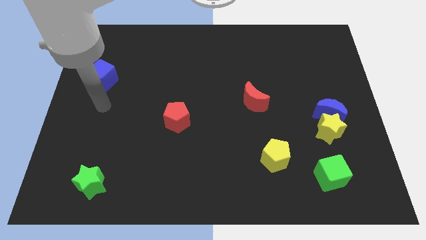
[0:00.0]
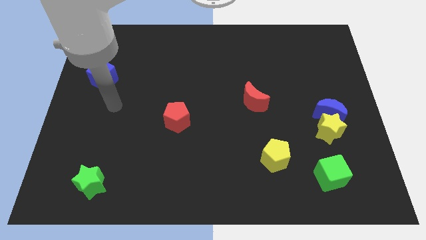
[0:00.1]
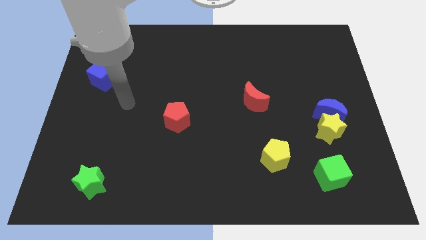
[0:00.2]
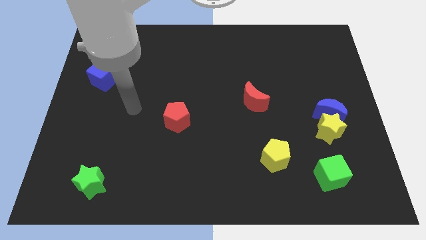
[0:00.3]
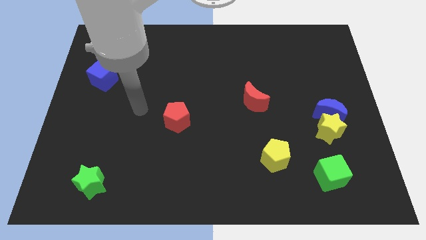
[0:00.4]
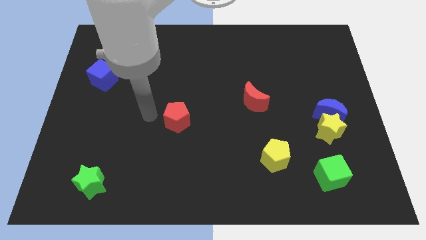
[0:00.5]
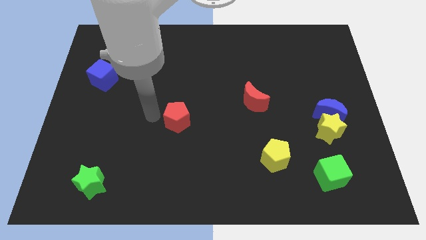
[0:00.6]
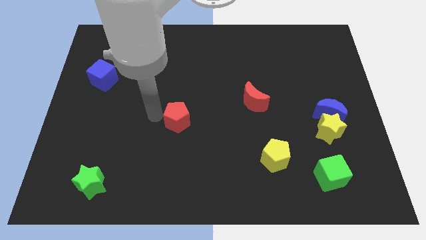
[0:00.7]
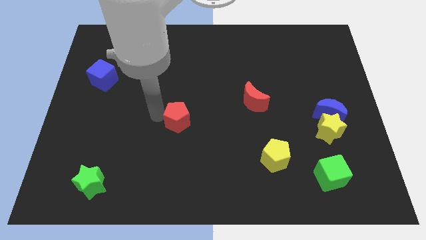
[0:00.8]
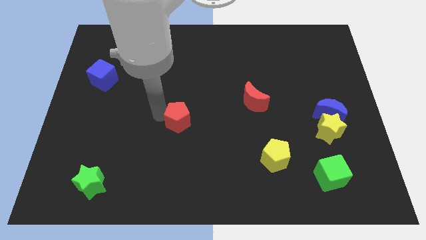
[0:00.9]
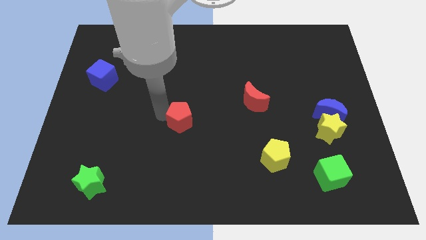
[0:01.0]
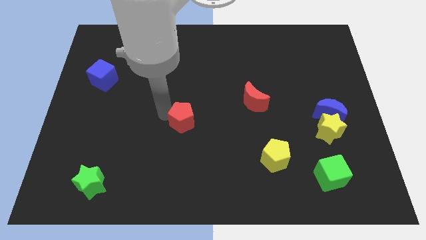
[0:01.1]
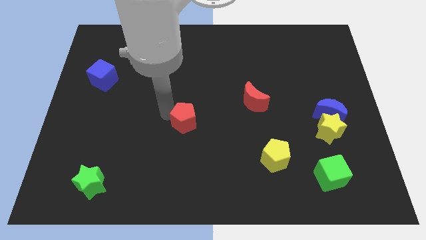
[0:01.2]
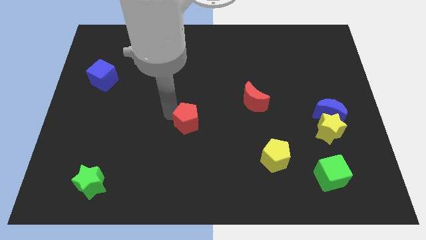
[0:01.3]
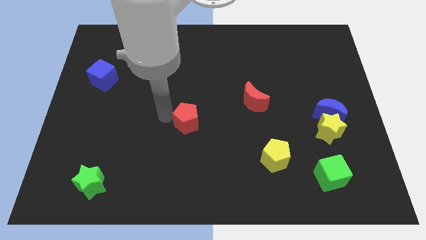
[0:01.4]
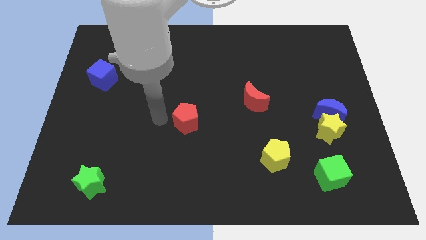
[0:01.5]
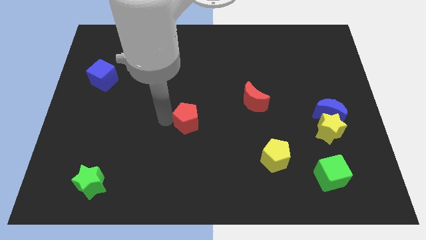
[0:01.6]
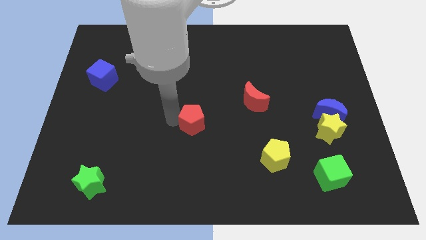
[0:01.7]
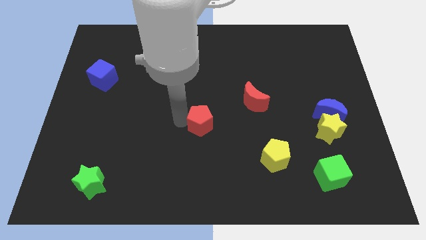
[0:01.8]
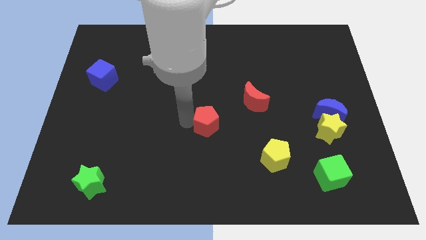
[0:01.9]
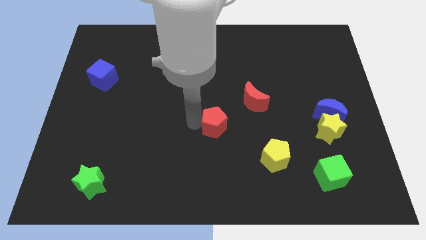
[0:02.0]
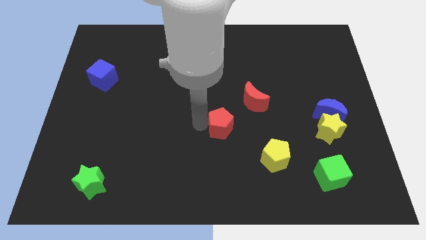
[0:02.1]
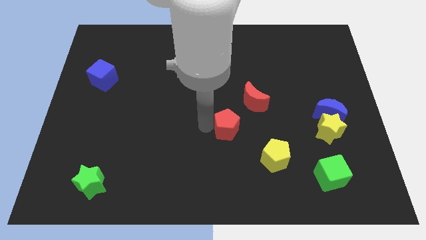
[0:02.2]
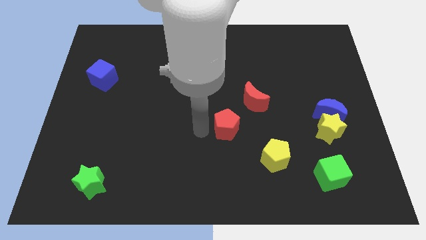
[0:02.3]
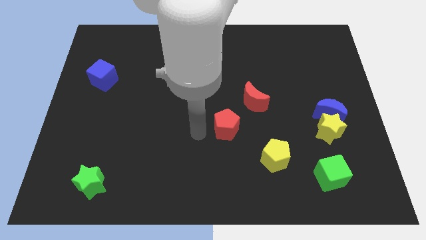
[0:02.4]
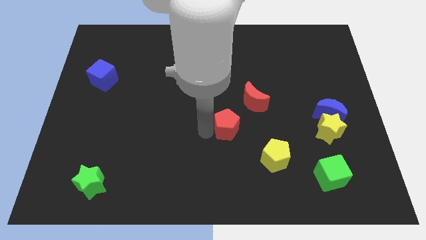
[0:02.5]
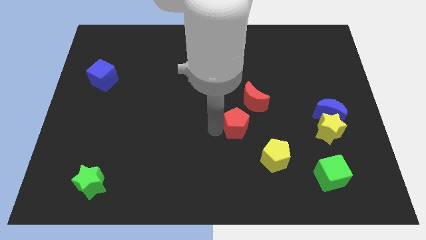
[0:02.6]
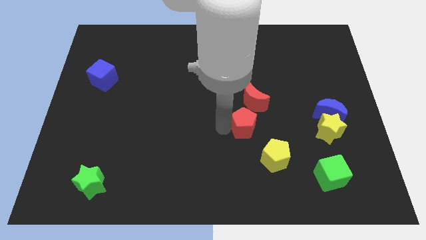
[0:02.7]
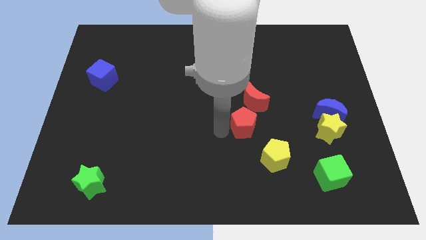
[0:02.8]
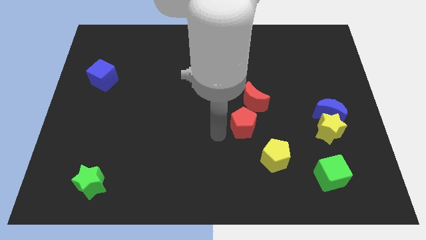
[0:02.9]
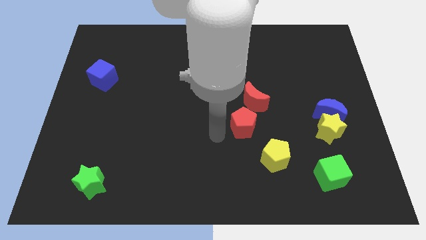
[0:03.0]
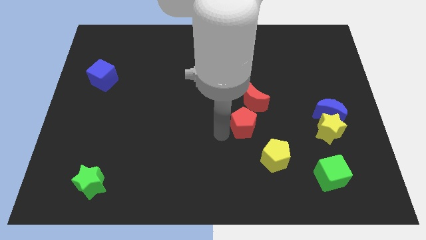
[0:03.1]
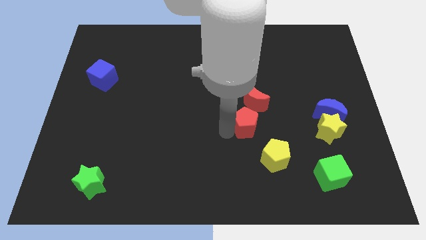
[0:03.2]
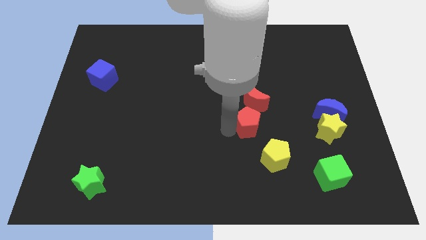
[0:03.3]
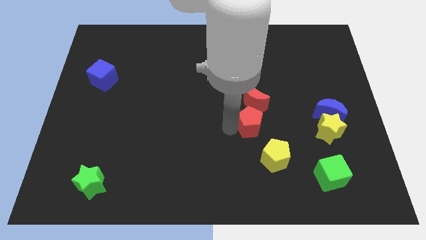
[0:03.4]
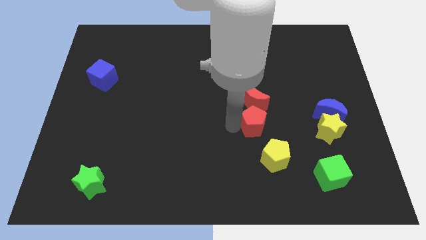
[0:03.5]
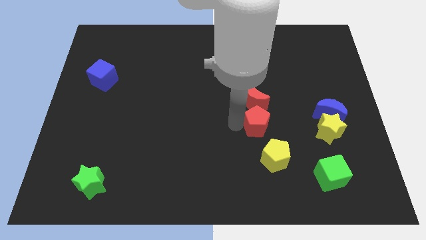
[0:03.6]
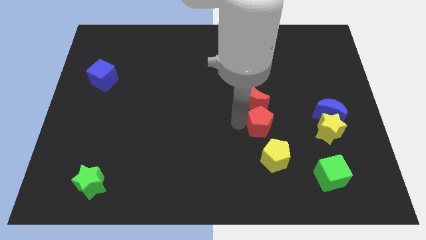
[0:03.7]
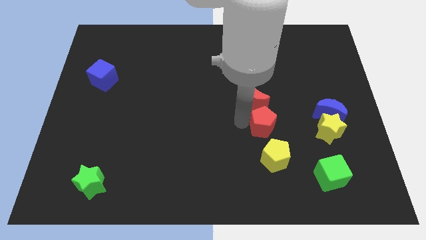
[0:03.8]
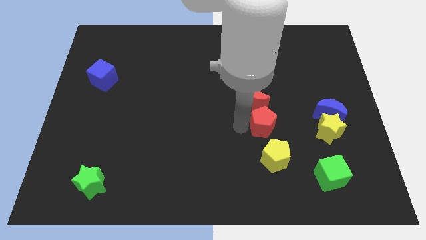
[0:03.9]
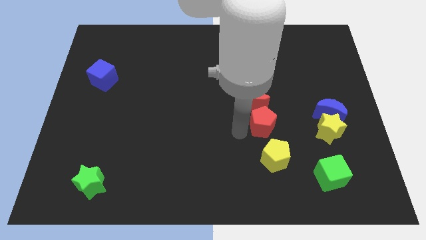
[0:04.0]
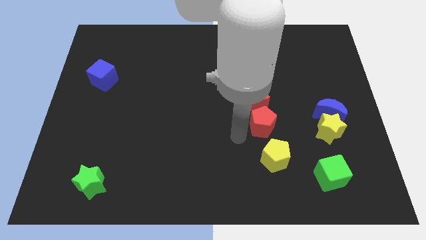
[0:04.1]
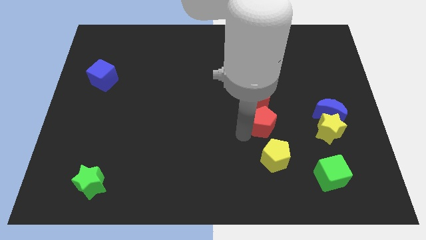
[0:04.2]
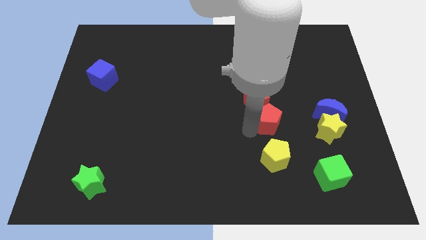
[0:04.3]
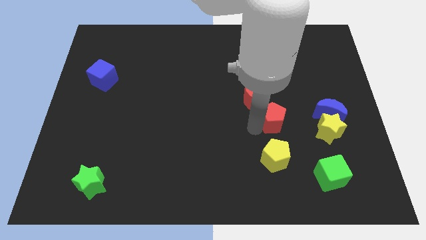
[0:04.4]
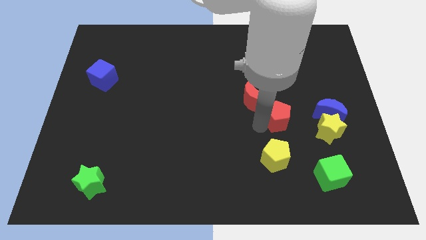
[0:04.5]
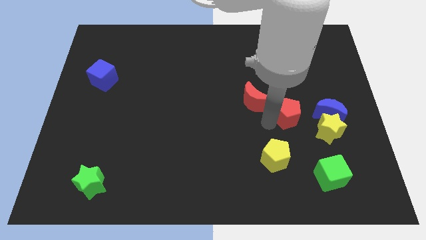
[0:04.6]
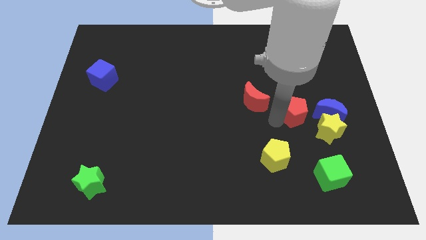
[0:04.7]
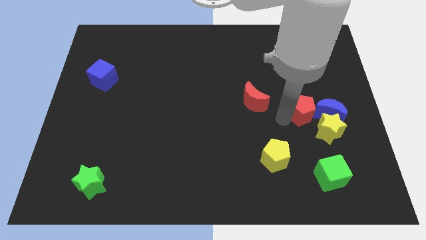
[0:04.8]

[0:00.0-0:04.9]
push the red pentagon diagonally up and to the left of the blue moon

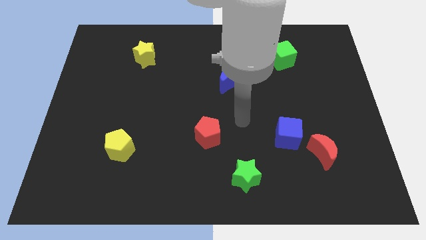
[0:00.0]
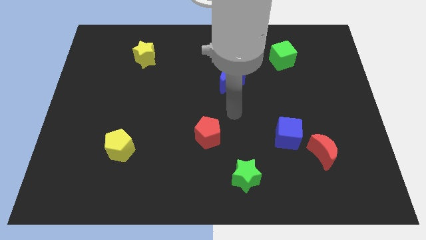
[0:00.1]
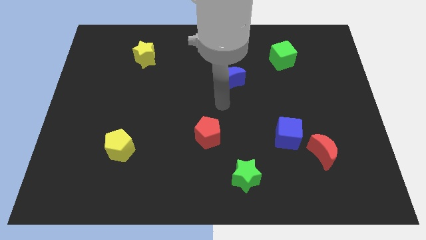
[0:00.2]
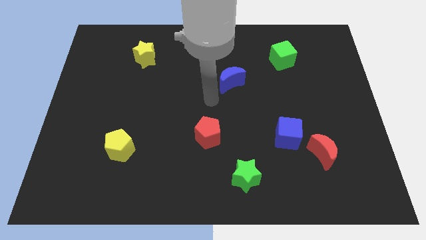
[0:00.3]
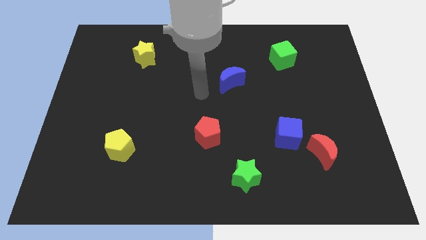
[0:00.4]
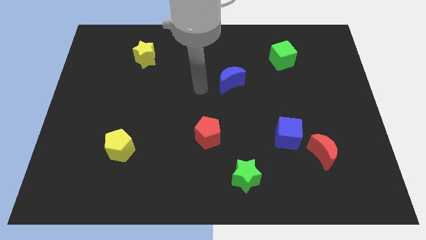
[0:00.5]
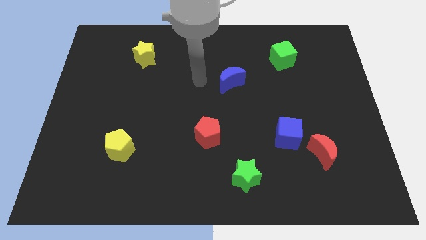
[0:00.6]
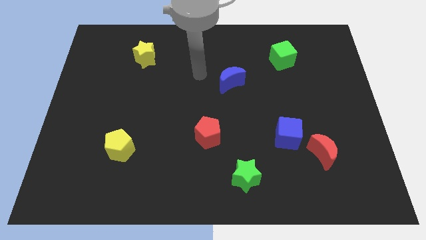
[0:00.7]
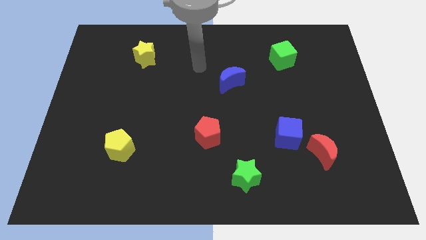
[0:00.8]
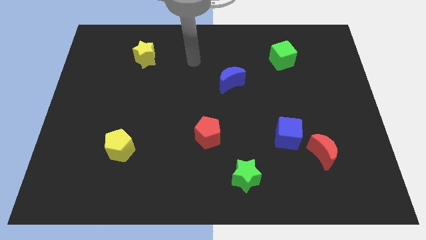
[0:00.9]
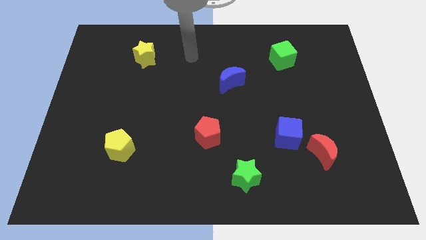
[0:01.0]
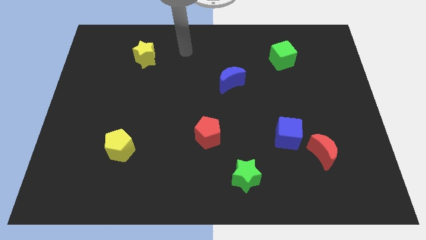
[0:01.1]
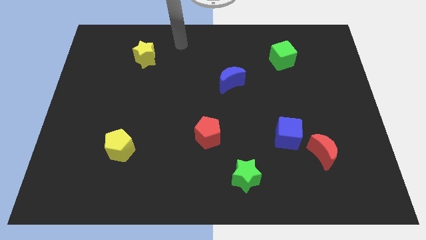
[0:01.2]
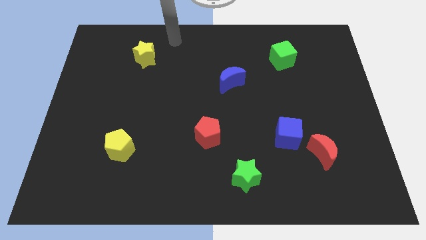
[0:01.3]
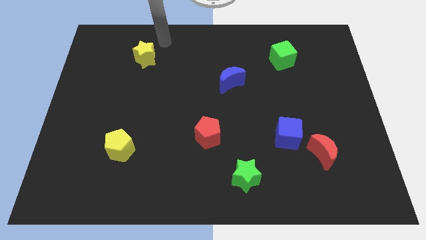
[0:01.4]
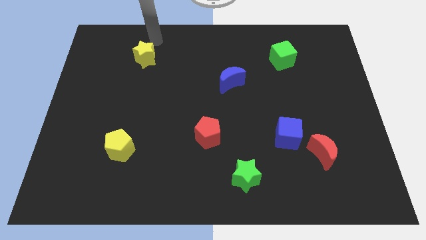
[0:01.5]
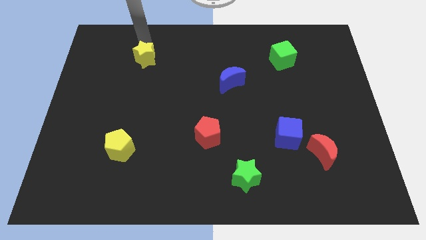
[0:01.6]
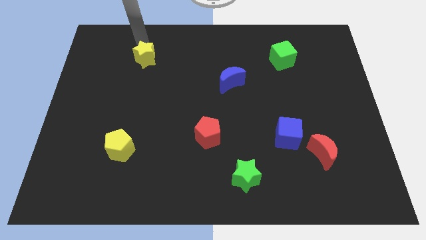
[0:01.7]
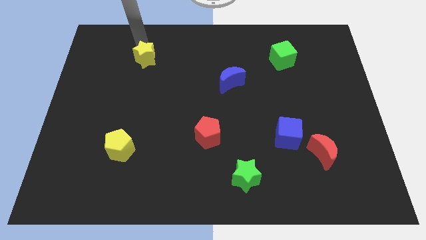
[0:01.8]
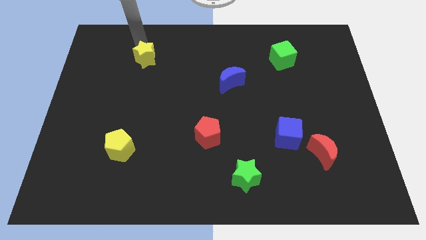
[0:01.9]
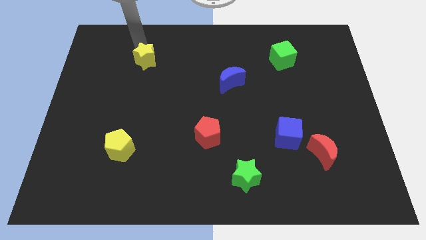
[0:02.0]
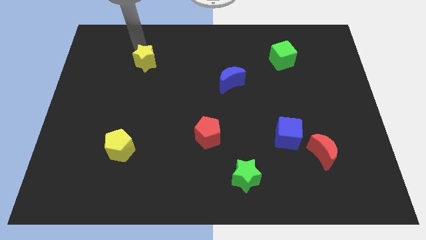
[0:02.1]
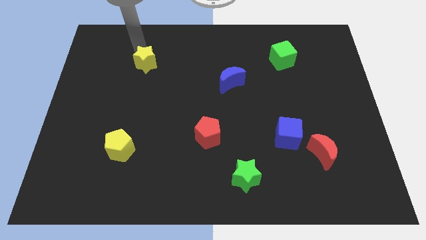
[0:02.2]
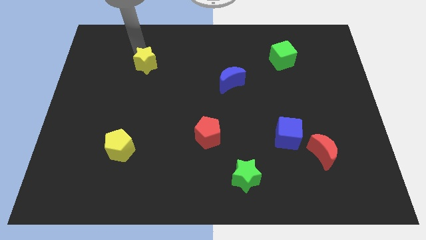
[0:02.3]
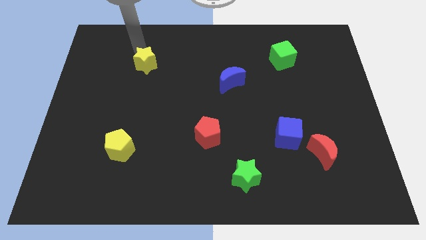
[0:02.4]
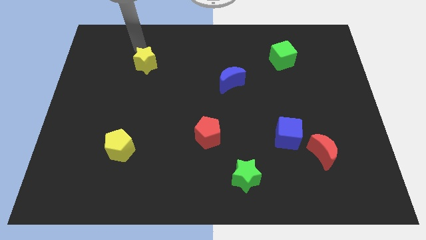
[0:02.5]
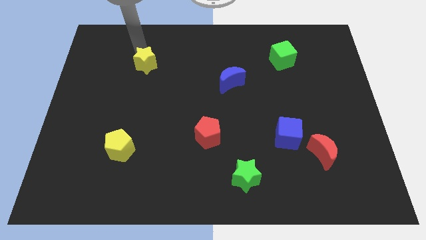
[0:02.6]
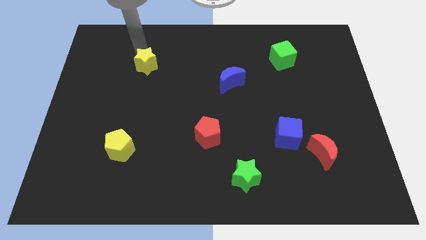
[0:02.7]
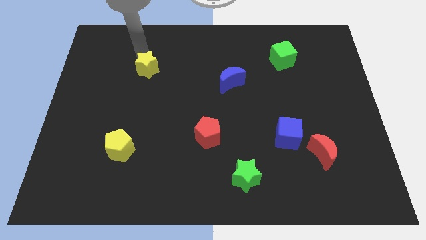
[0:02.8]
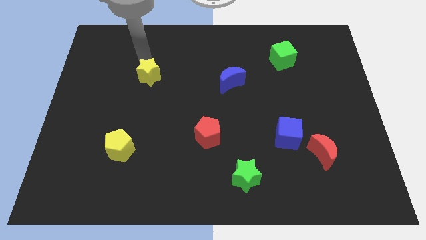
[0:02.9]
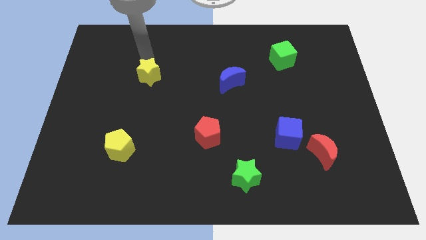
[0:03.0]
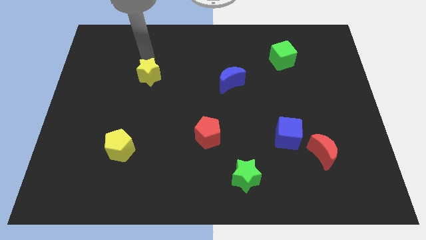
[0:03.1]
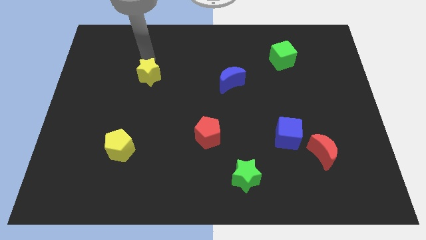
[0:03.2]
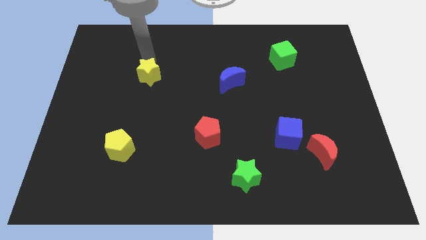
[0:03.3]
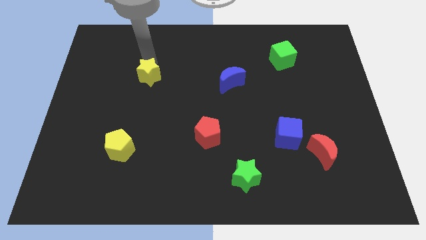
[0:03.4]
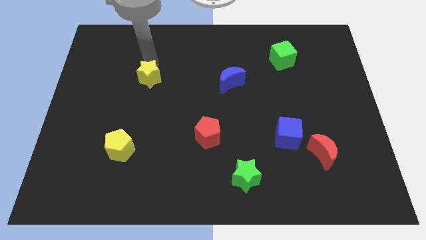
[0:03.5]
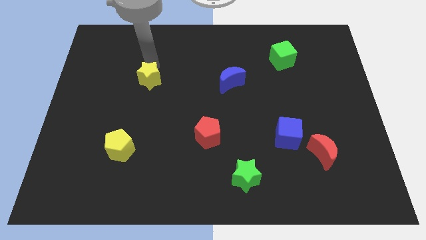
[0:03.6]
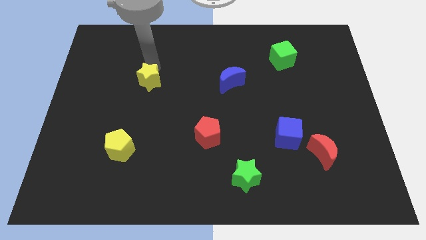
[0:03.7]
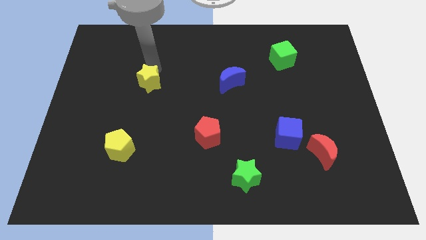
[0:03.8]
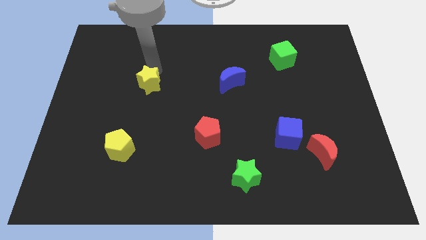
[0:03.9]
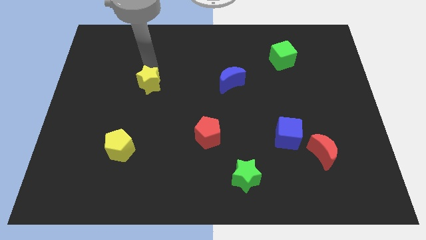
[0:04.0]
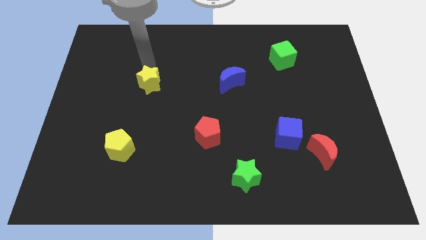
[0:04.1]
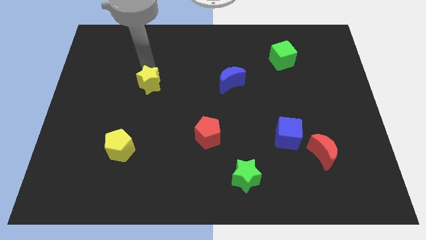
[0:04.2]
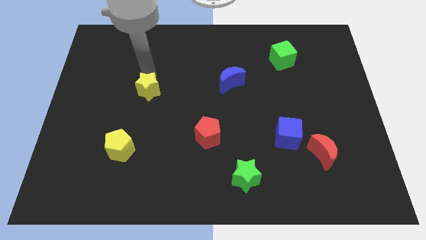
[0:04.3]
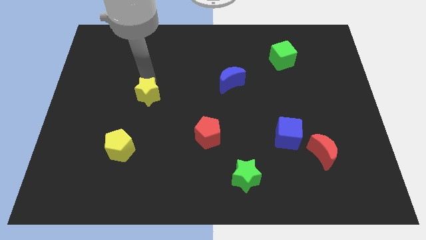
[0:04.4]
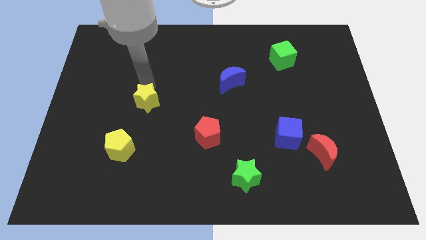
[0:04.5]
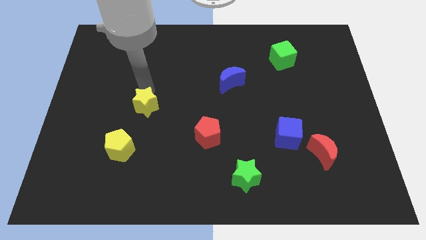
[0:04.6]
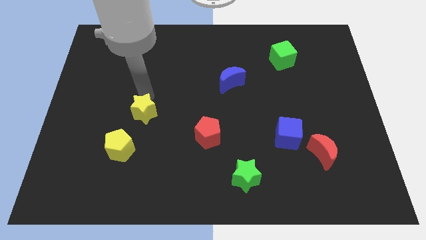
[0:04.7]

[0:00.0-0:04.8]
put the yellow star diagonally up and to the right of the yellow pentagon
